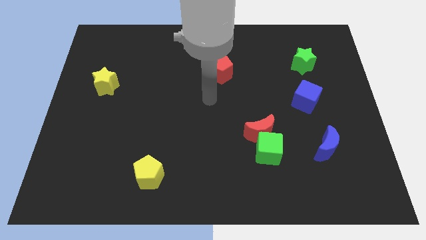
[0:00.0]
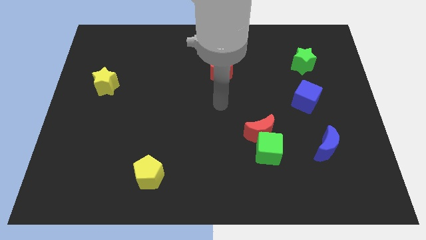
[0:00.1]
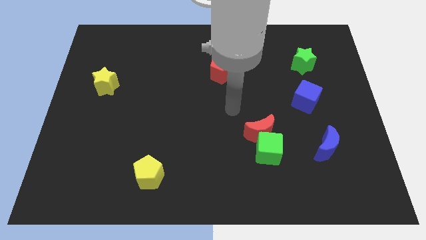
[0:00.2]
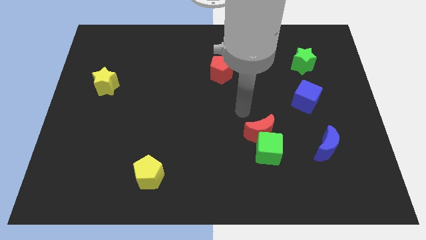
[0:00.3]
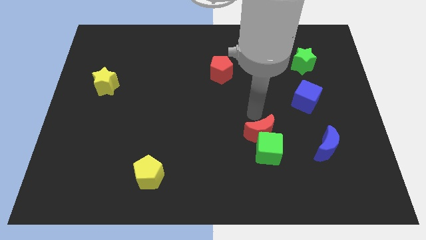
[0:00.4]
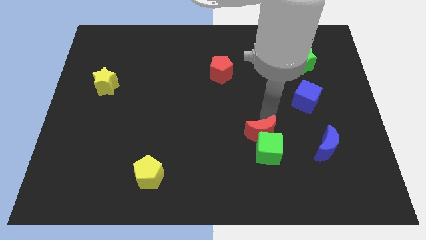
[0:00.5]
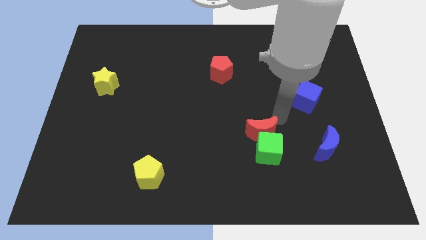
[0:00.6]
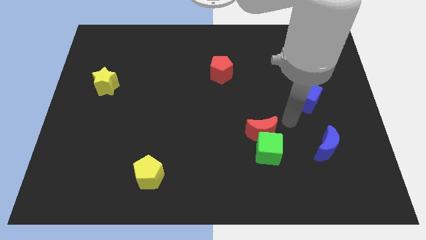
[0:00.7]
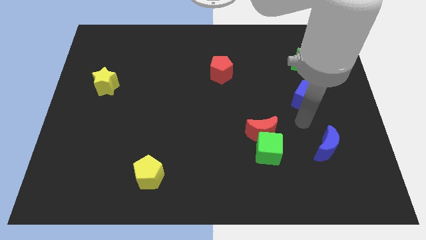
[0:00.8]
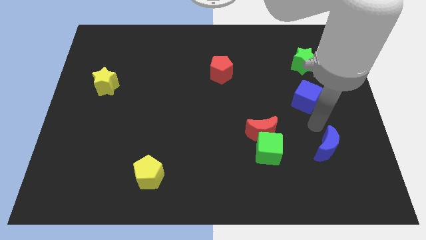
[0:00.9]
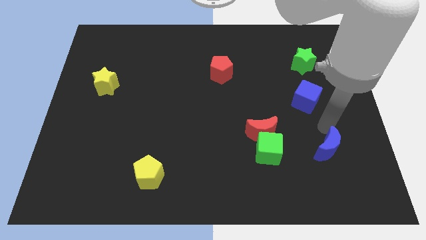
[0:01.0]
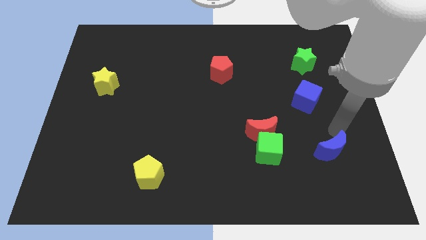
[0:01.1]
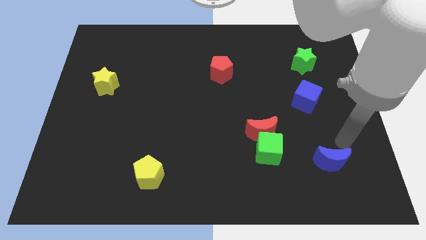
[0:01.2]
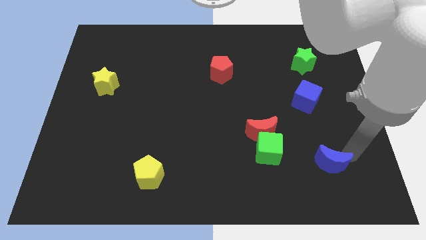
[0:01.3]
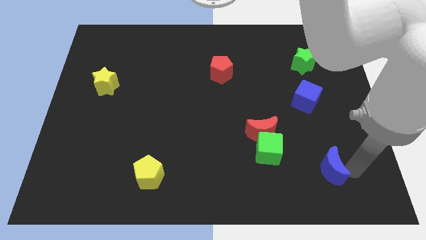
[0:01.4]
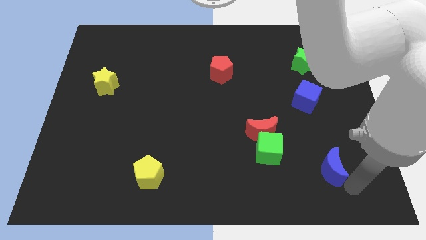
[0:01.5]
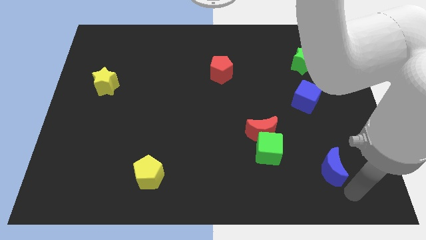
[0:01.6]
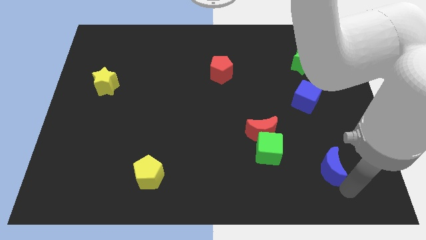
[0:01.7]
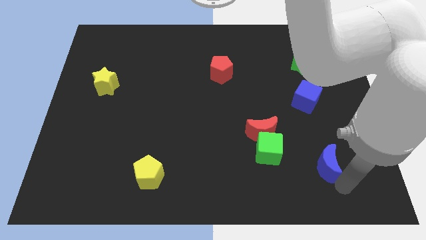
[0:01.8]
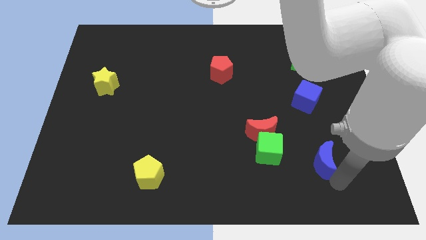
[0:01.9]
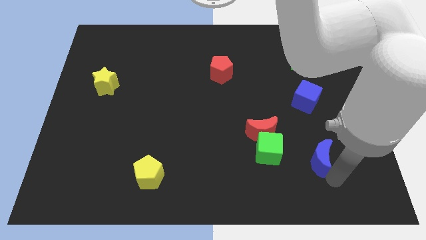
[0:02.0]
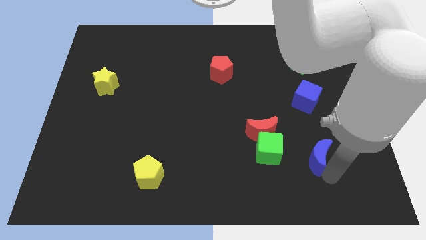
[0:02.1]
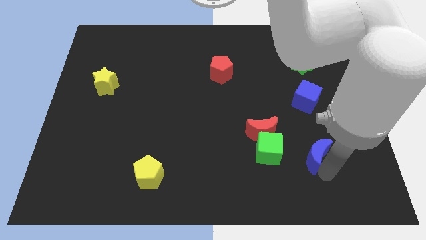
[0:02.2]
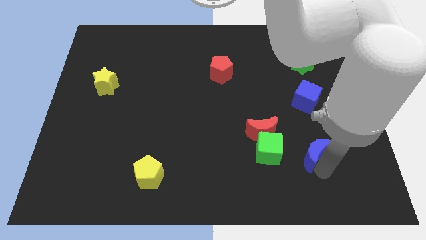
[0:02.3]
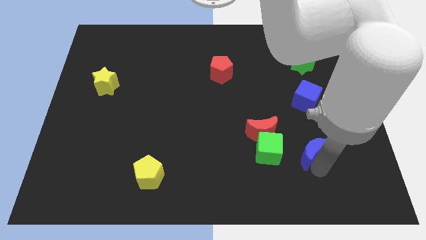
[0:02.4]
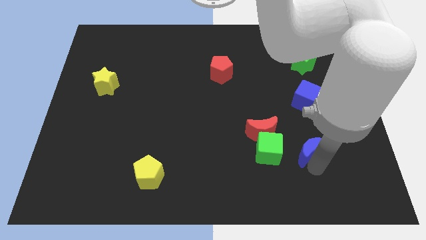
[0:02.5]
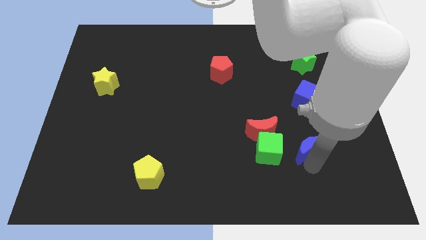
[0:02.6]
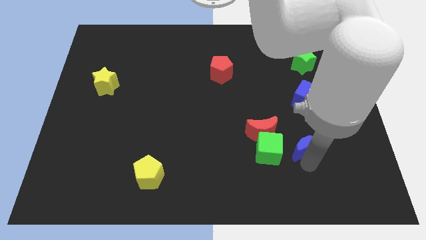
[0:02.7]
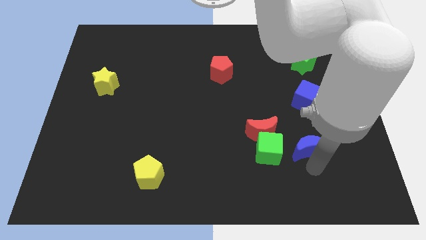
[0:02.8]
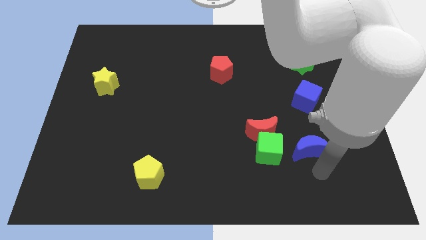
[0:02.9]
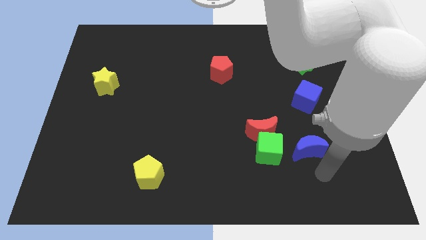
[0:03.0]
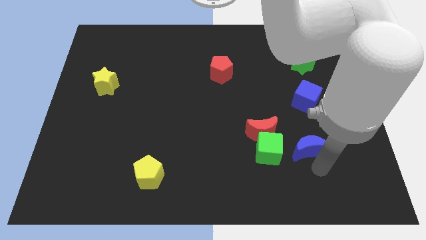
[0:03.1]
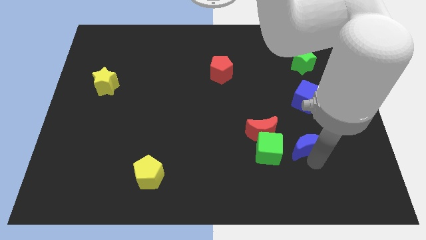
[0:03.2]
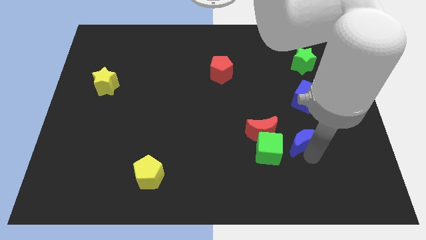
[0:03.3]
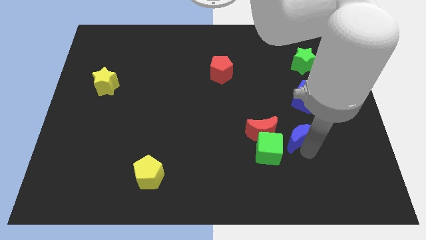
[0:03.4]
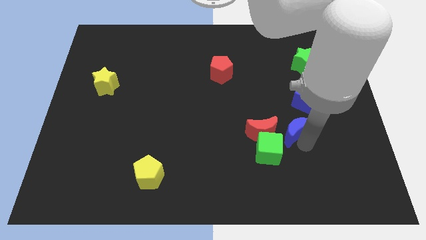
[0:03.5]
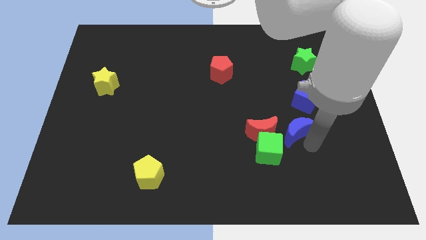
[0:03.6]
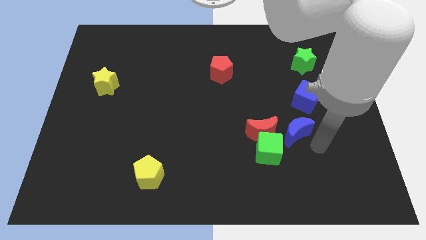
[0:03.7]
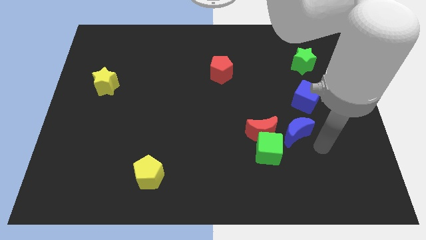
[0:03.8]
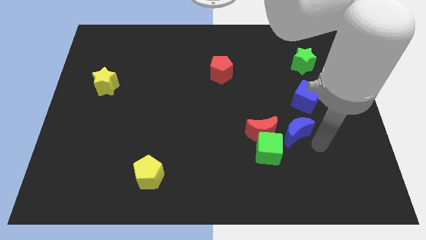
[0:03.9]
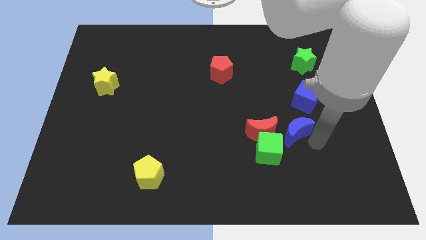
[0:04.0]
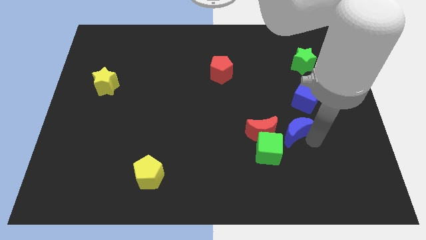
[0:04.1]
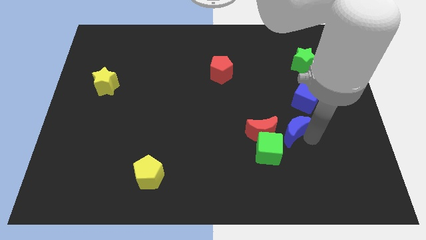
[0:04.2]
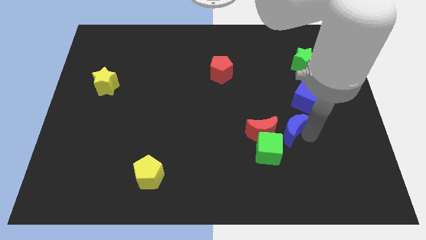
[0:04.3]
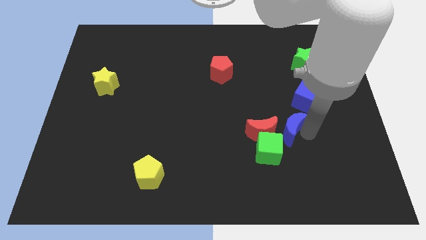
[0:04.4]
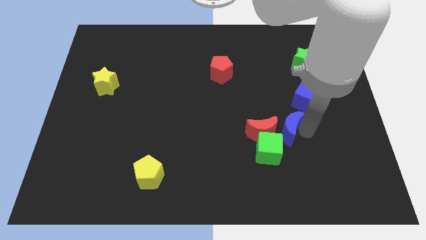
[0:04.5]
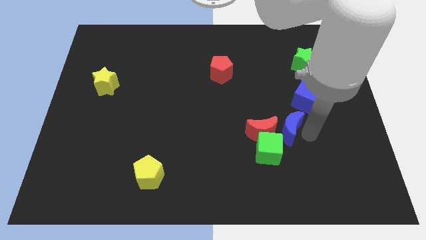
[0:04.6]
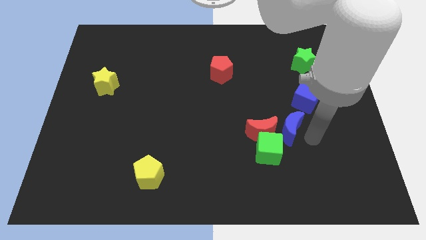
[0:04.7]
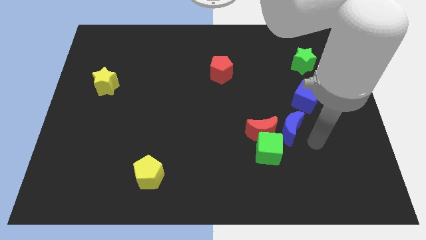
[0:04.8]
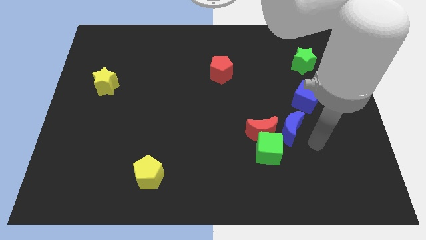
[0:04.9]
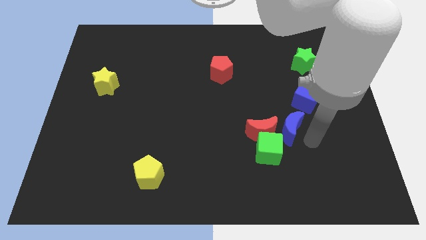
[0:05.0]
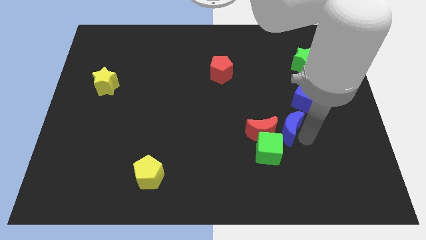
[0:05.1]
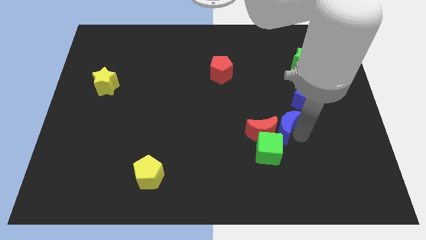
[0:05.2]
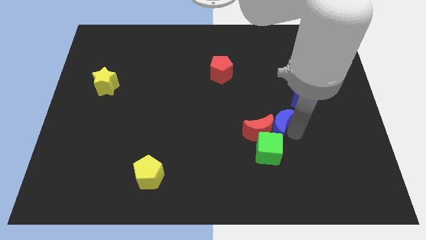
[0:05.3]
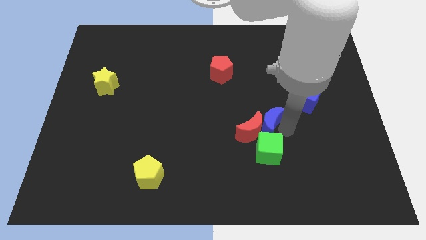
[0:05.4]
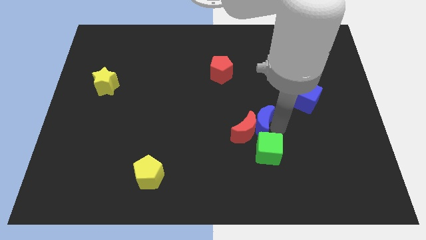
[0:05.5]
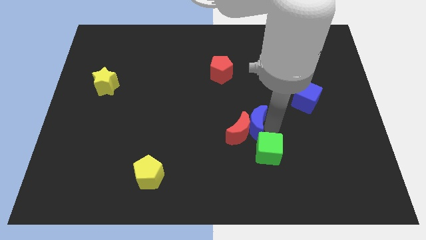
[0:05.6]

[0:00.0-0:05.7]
put the blue moon to the center

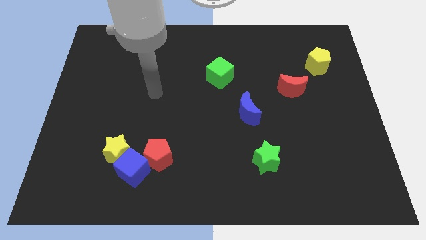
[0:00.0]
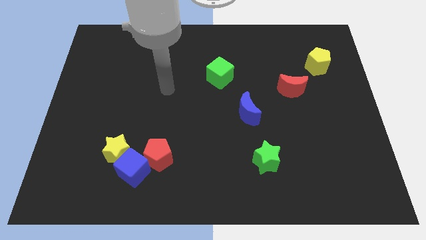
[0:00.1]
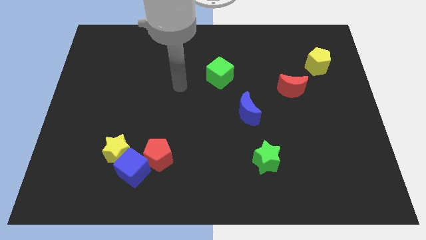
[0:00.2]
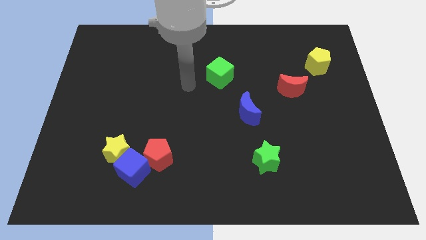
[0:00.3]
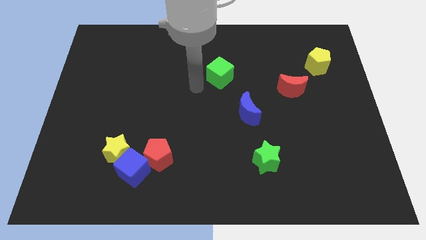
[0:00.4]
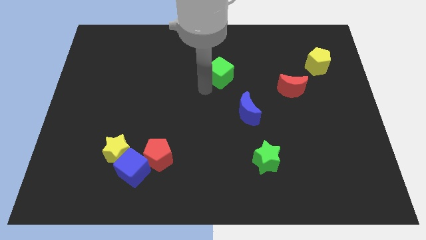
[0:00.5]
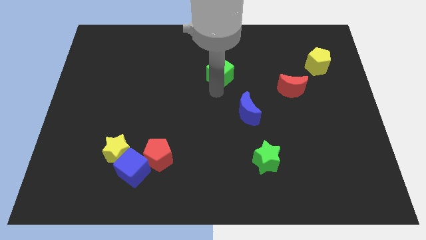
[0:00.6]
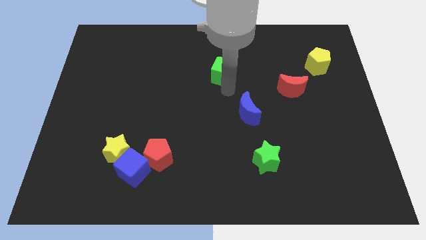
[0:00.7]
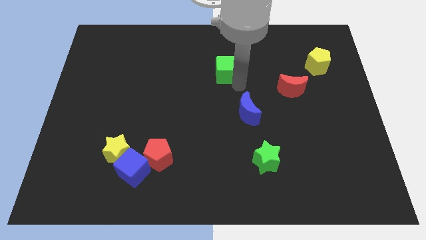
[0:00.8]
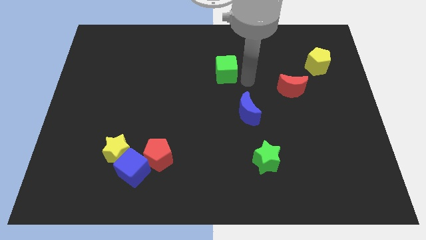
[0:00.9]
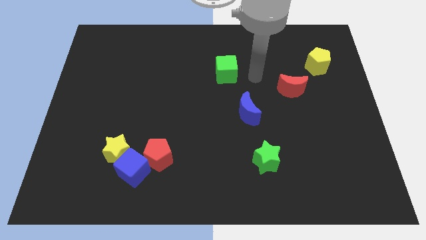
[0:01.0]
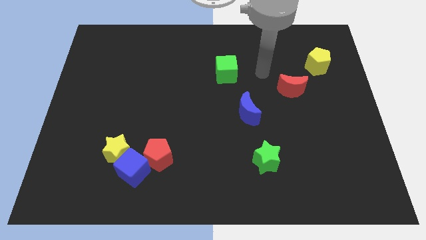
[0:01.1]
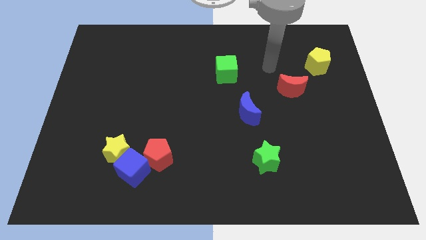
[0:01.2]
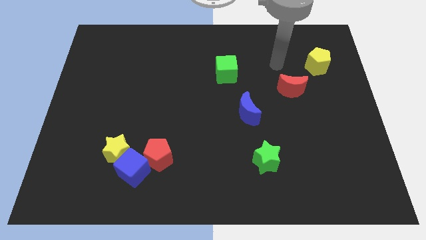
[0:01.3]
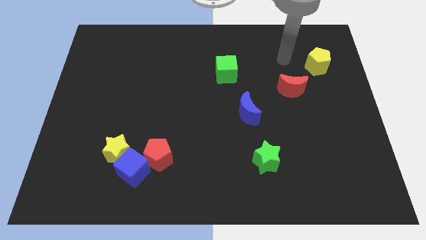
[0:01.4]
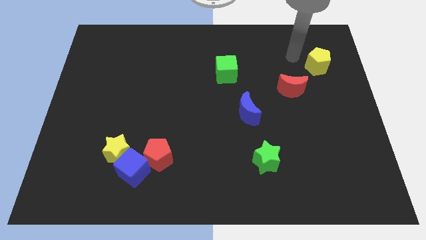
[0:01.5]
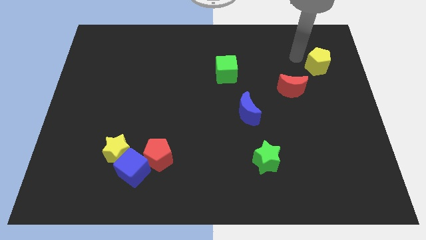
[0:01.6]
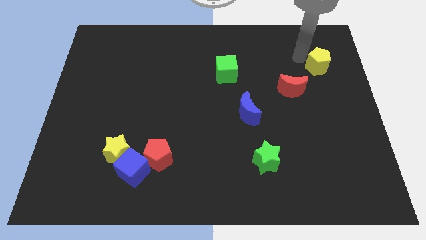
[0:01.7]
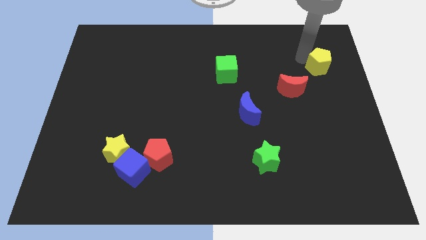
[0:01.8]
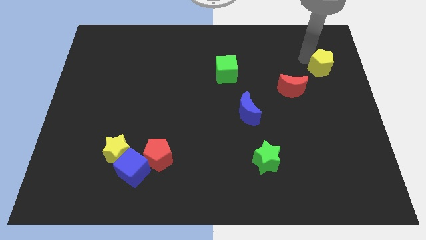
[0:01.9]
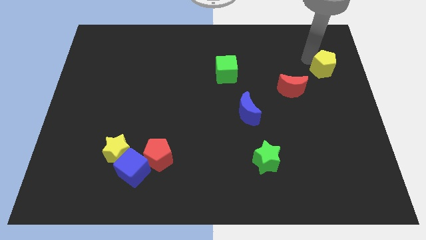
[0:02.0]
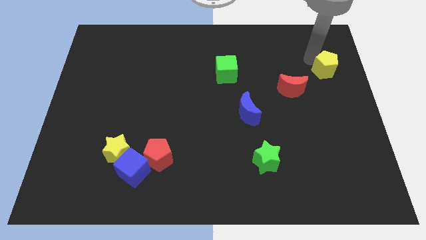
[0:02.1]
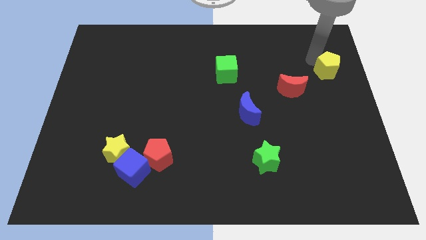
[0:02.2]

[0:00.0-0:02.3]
push the yellow pentagon to the center right
